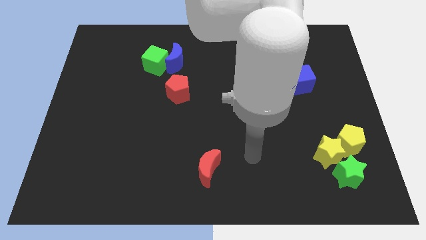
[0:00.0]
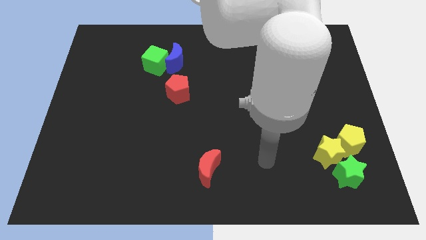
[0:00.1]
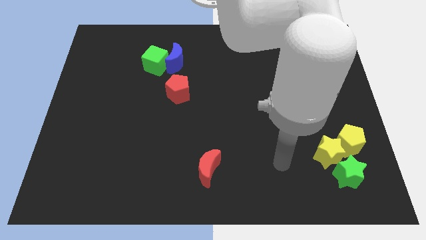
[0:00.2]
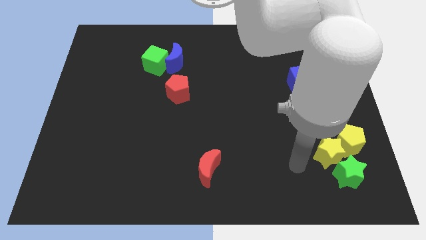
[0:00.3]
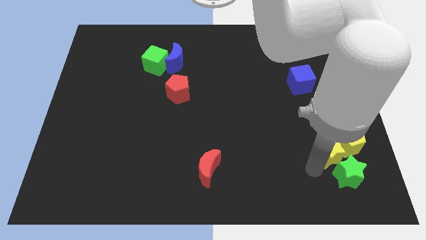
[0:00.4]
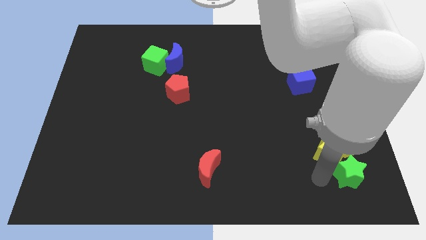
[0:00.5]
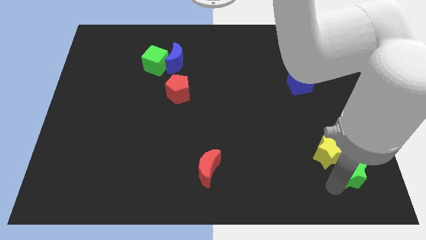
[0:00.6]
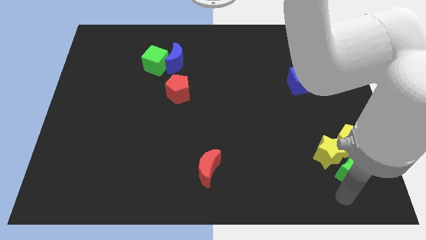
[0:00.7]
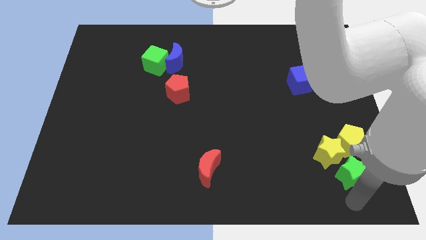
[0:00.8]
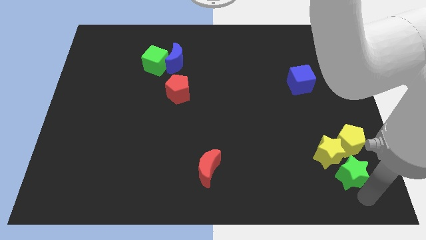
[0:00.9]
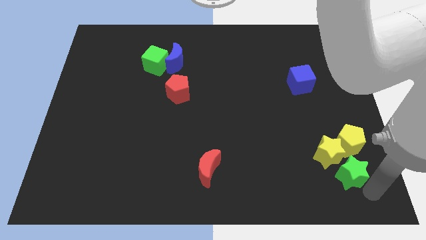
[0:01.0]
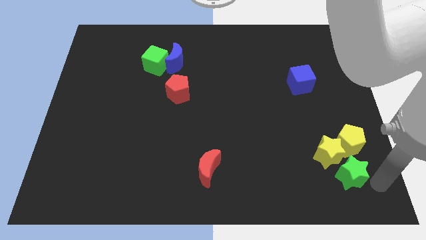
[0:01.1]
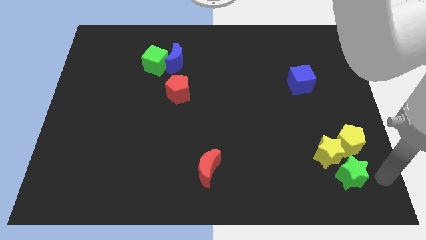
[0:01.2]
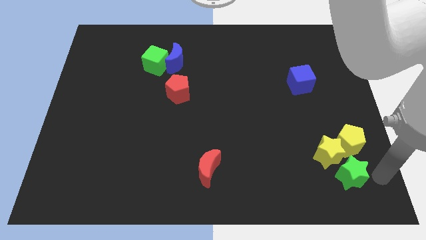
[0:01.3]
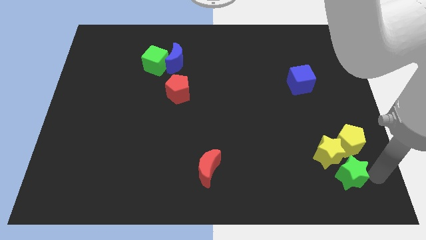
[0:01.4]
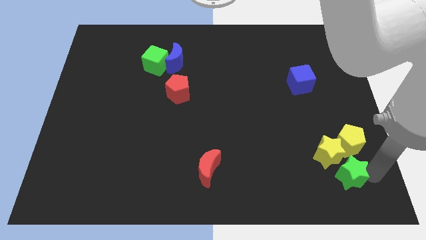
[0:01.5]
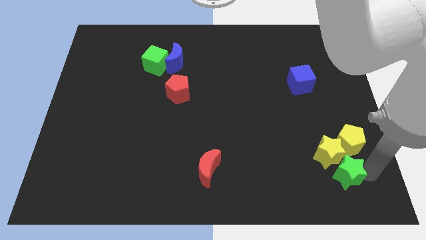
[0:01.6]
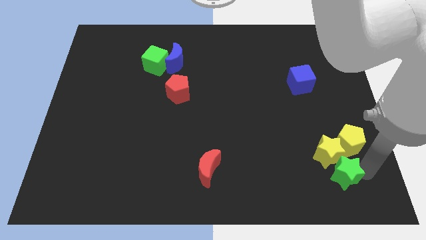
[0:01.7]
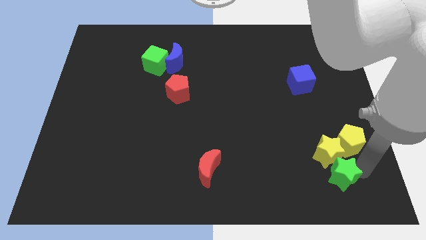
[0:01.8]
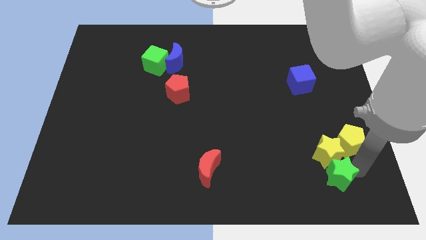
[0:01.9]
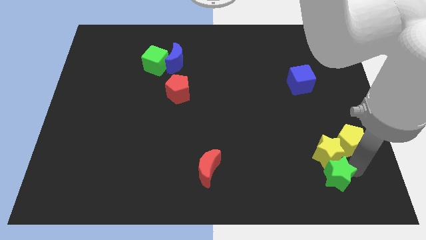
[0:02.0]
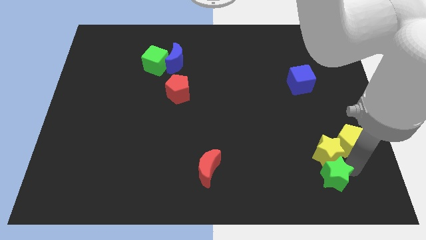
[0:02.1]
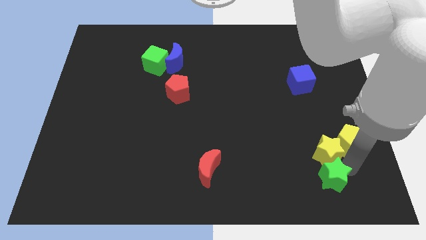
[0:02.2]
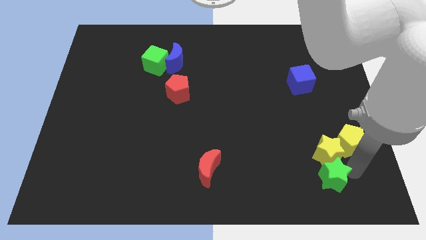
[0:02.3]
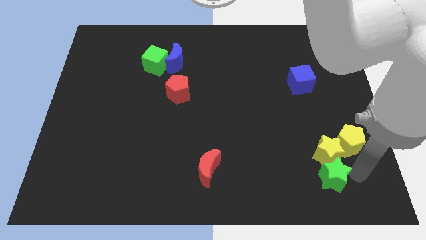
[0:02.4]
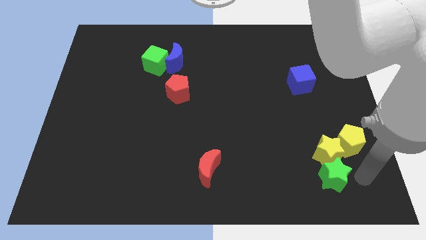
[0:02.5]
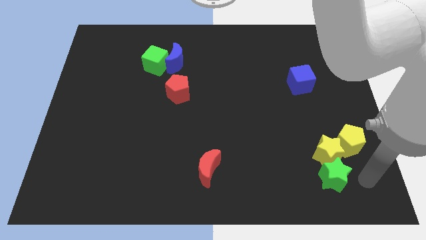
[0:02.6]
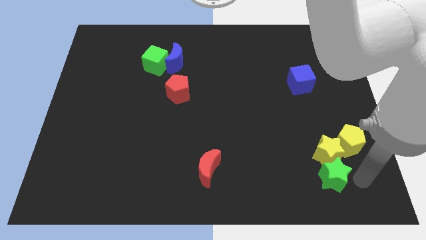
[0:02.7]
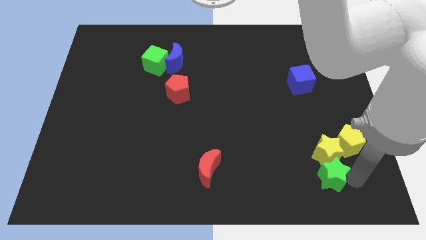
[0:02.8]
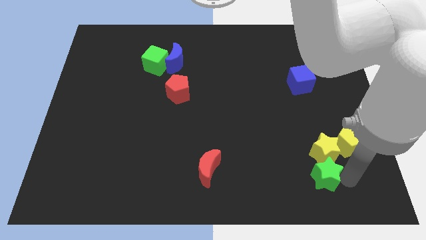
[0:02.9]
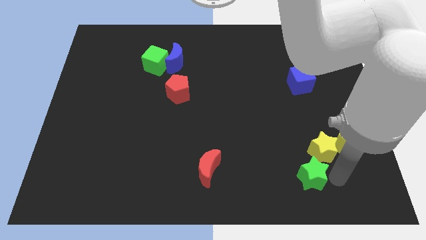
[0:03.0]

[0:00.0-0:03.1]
move the green star a bit to the left

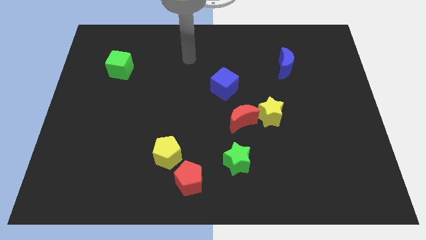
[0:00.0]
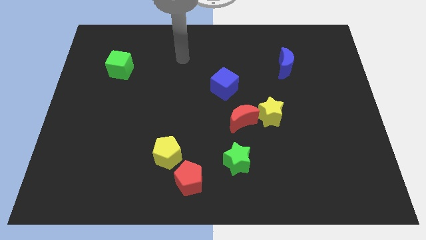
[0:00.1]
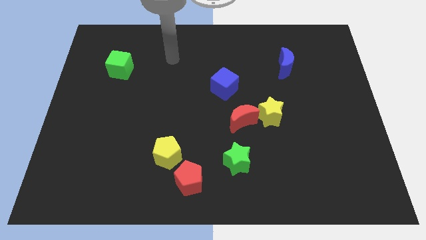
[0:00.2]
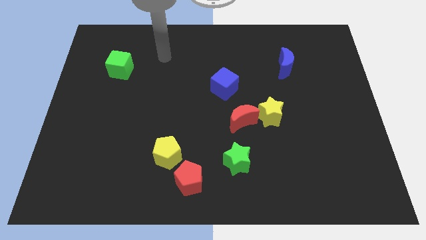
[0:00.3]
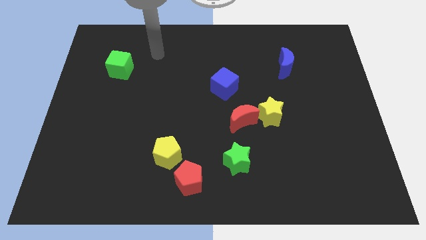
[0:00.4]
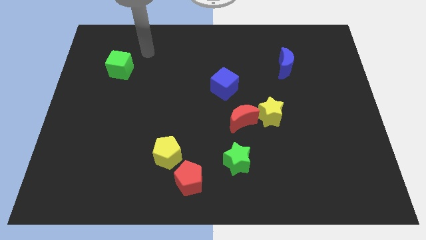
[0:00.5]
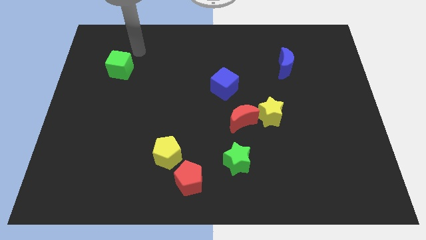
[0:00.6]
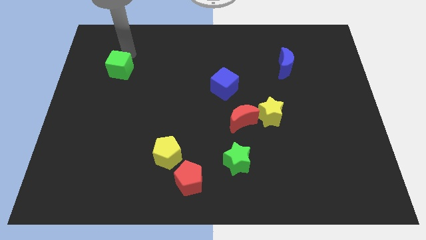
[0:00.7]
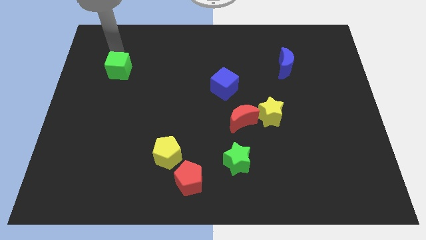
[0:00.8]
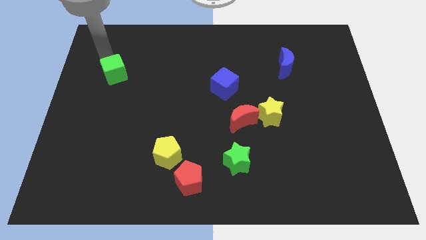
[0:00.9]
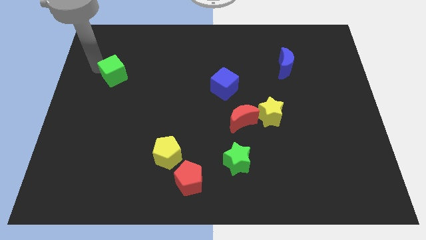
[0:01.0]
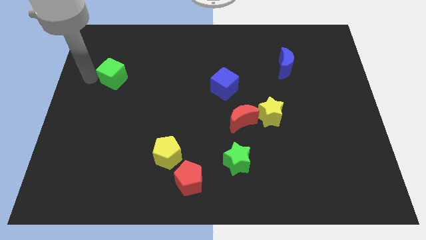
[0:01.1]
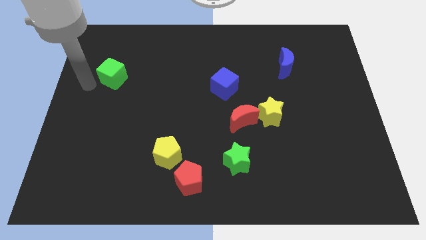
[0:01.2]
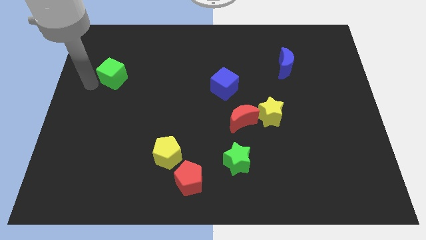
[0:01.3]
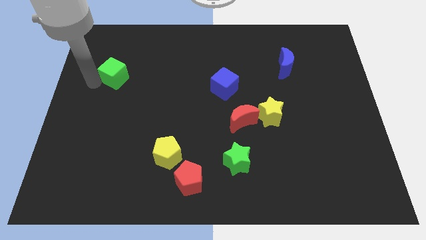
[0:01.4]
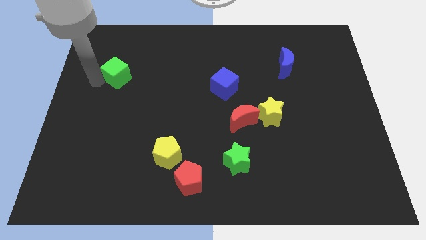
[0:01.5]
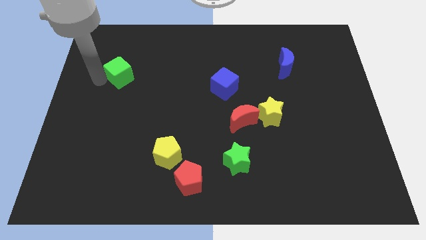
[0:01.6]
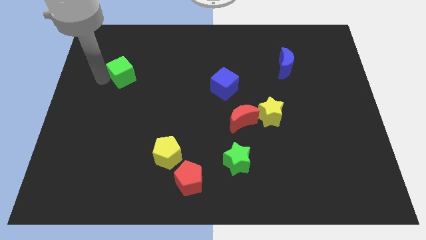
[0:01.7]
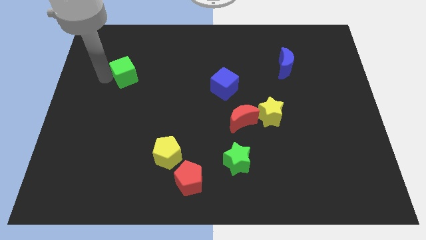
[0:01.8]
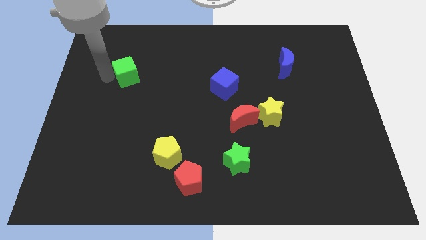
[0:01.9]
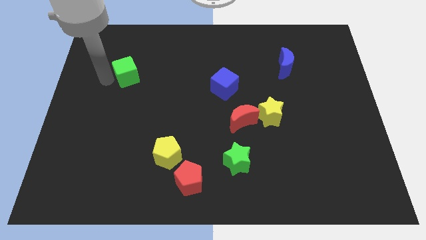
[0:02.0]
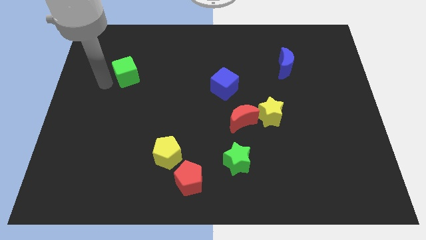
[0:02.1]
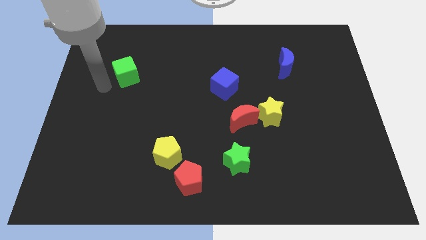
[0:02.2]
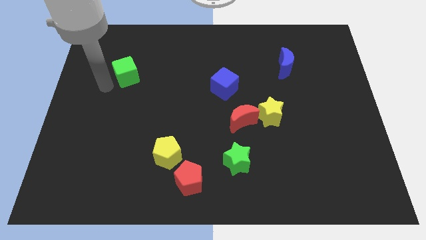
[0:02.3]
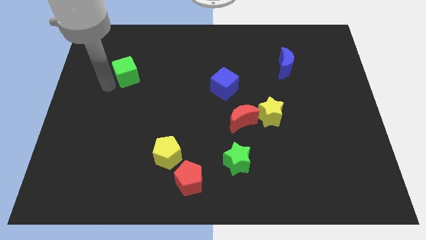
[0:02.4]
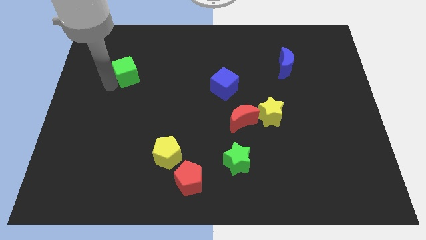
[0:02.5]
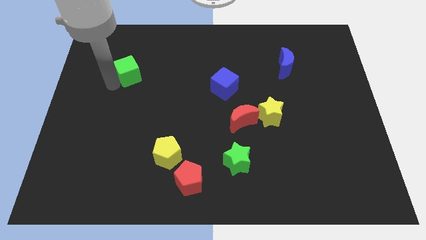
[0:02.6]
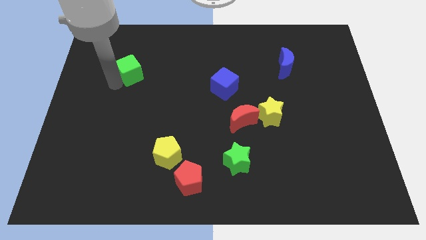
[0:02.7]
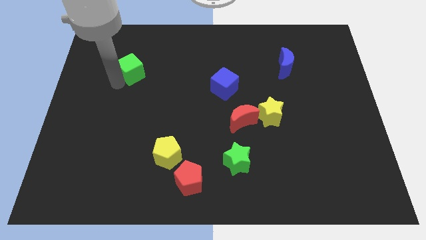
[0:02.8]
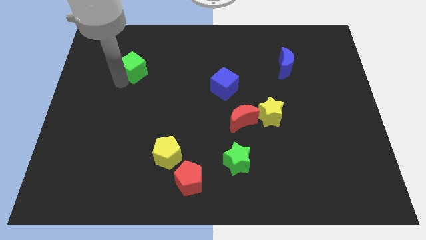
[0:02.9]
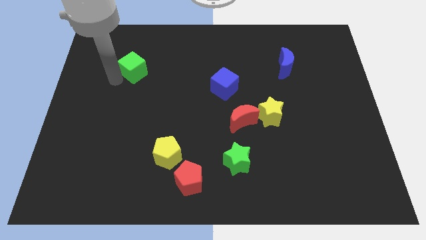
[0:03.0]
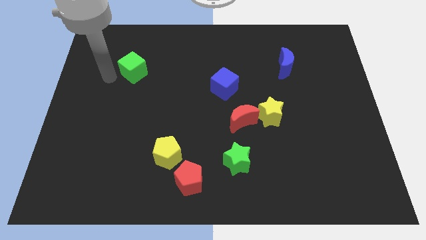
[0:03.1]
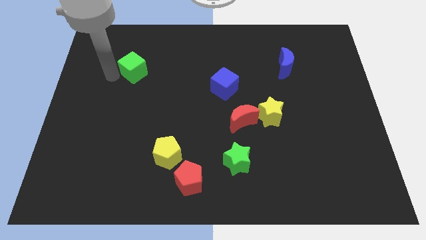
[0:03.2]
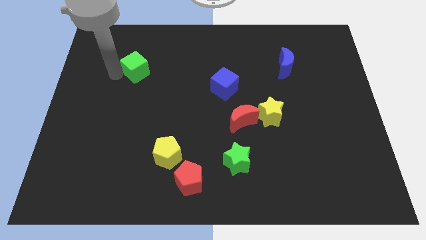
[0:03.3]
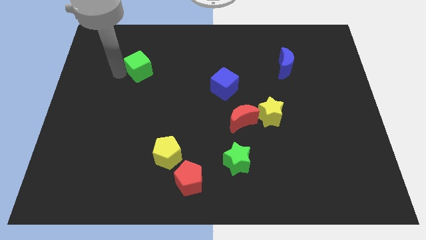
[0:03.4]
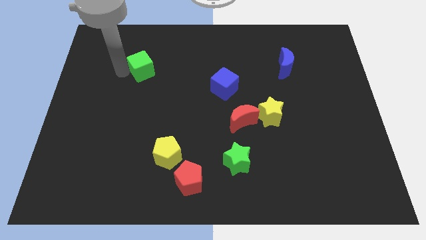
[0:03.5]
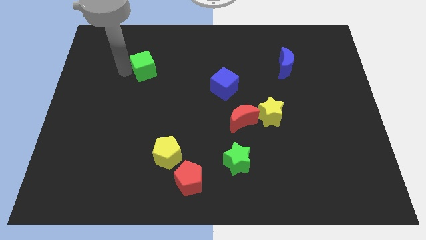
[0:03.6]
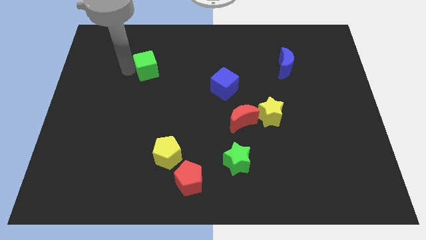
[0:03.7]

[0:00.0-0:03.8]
slide the green cube a bit right

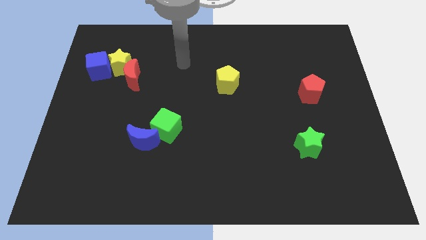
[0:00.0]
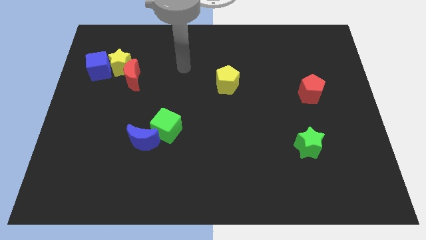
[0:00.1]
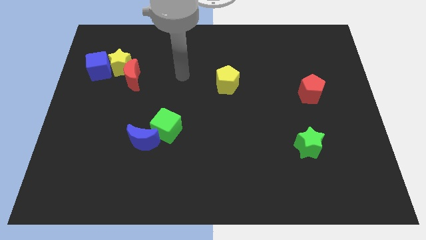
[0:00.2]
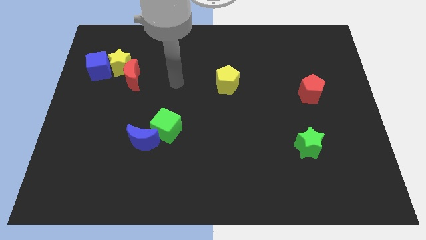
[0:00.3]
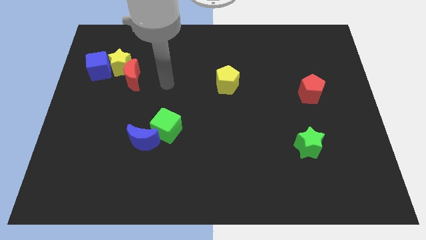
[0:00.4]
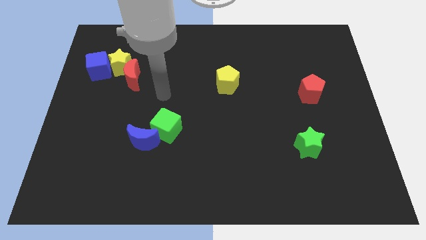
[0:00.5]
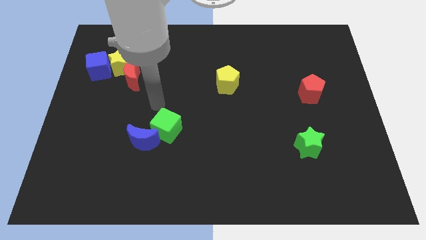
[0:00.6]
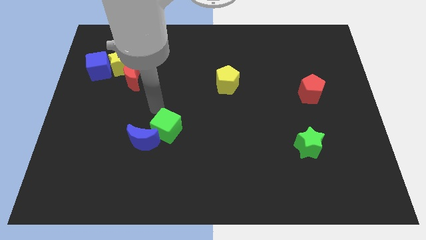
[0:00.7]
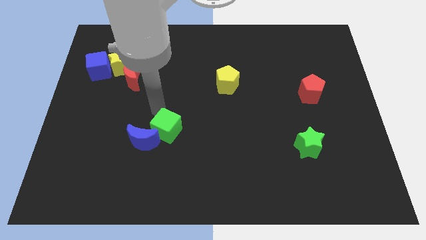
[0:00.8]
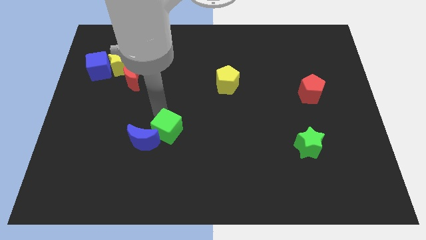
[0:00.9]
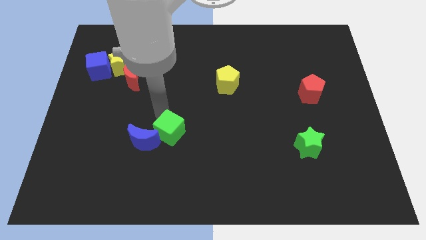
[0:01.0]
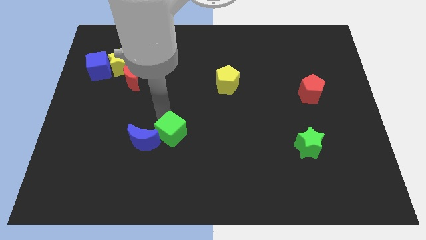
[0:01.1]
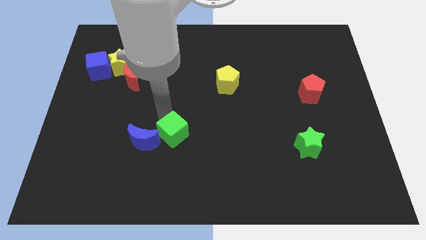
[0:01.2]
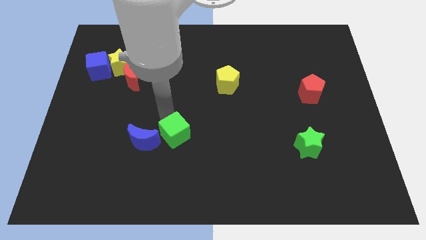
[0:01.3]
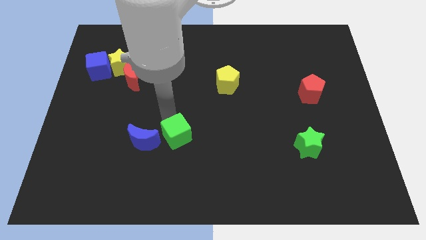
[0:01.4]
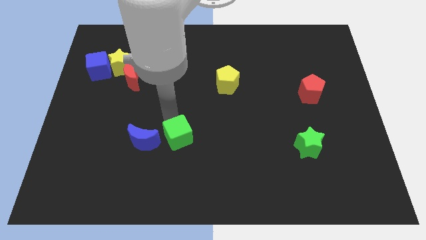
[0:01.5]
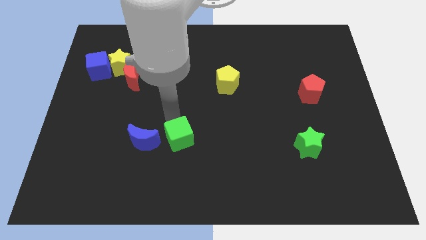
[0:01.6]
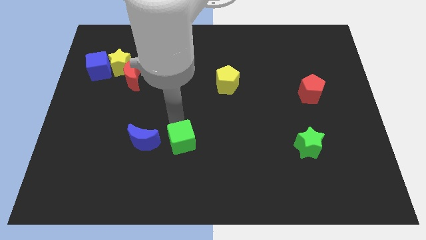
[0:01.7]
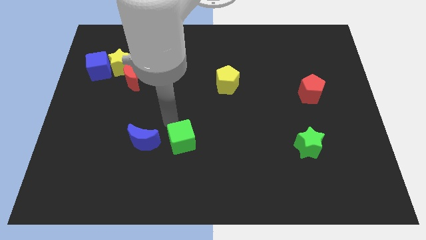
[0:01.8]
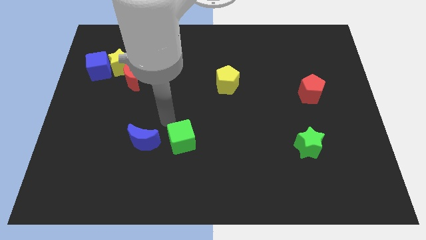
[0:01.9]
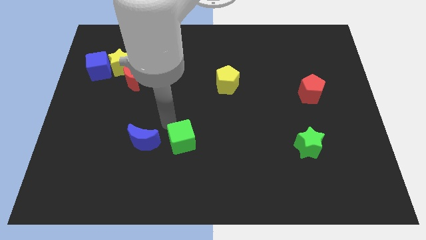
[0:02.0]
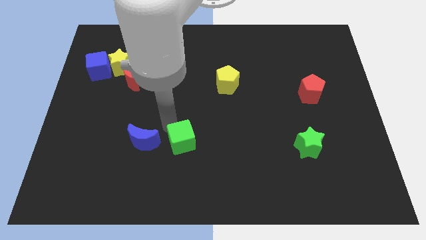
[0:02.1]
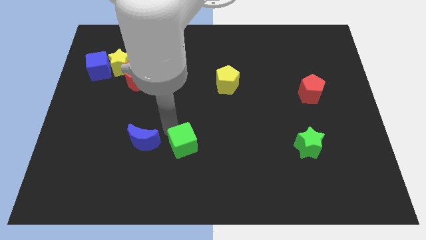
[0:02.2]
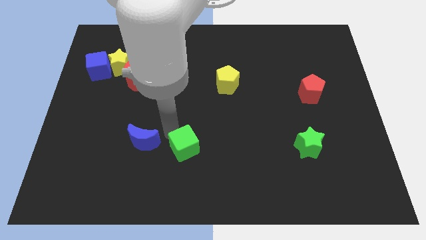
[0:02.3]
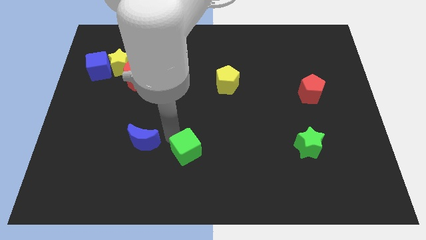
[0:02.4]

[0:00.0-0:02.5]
slide the green cube downwards and to the right diagonally a little
